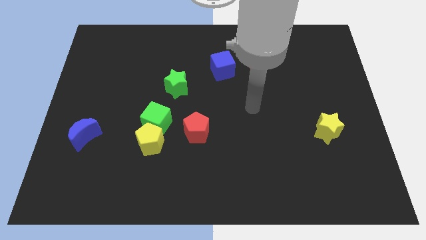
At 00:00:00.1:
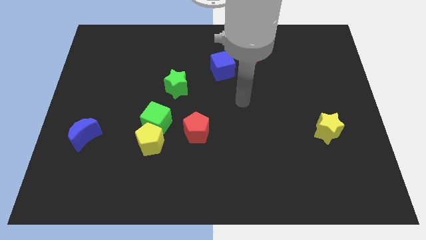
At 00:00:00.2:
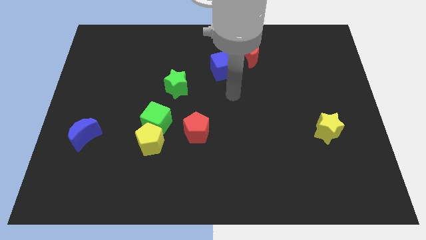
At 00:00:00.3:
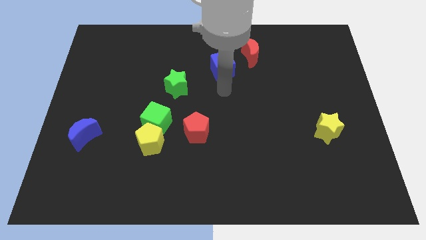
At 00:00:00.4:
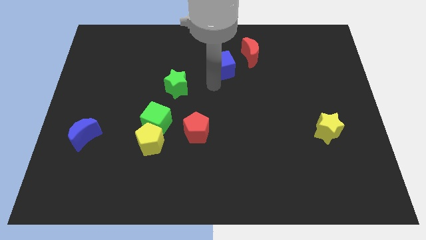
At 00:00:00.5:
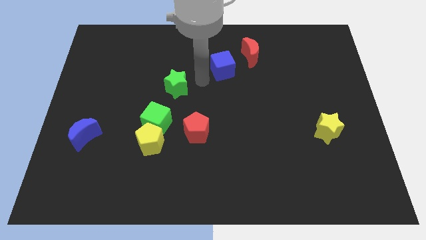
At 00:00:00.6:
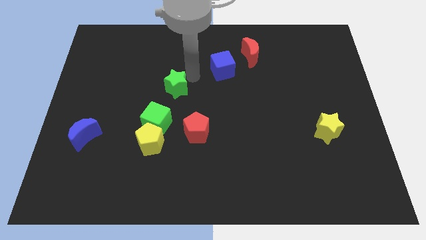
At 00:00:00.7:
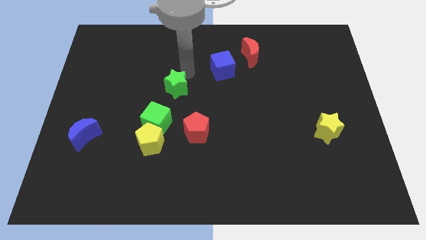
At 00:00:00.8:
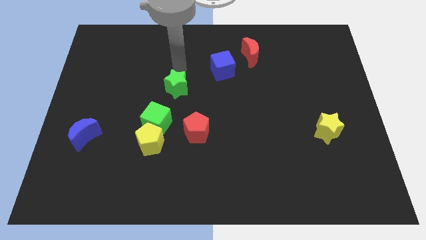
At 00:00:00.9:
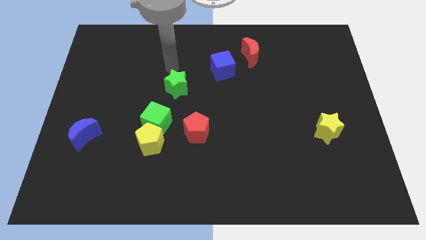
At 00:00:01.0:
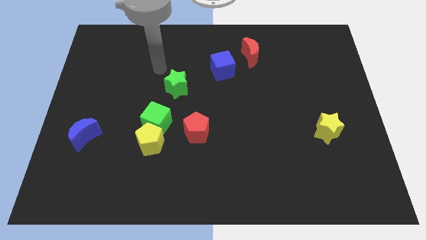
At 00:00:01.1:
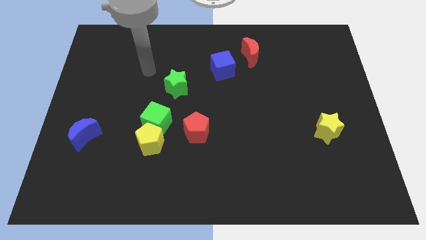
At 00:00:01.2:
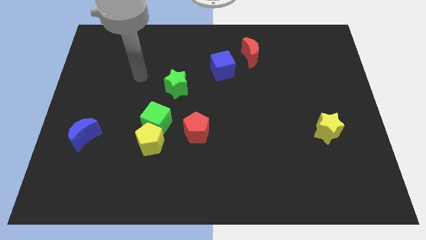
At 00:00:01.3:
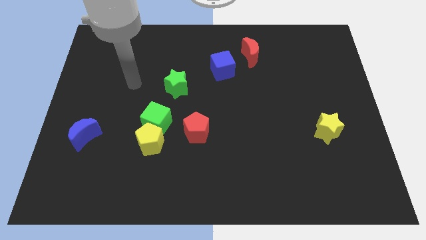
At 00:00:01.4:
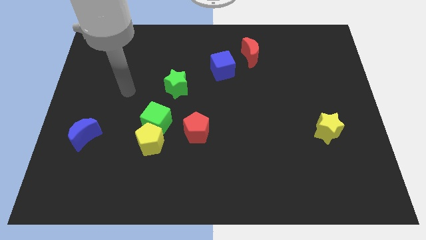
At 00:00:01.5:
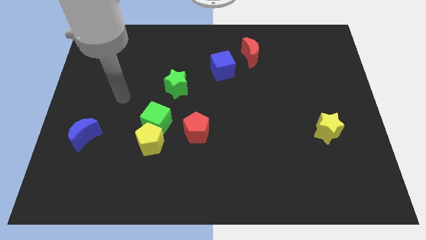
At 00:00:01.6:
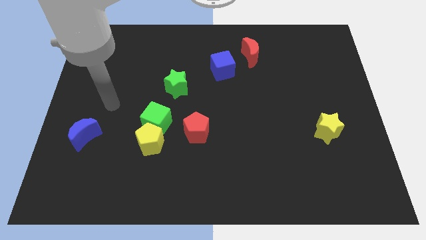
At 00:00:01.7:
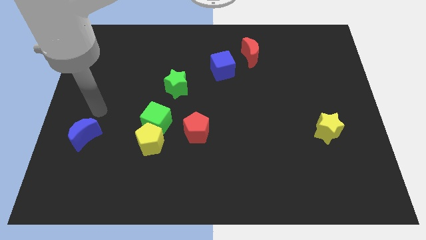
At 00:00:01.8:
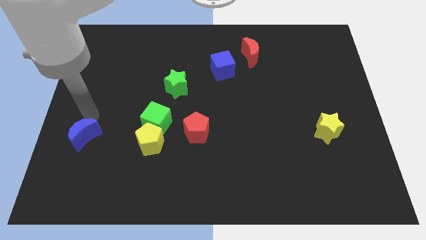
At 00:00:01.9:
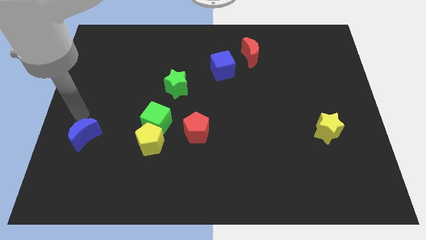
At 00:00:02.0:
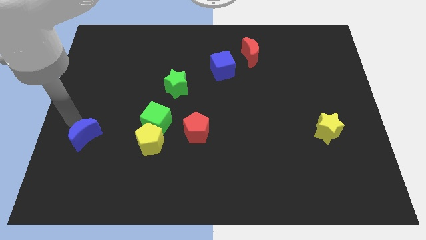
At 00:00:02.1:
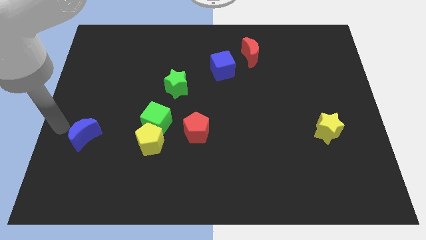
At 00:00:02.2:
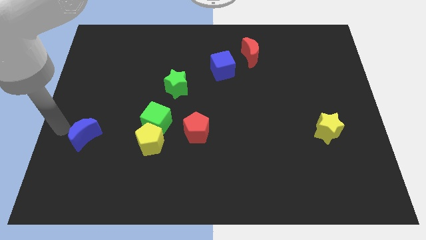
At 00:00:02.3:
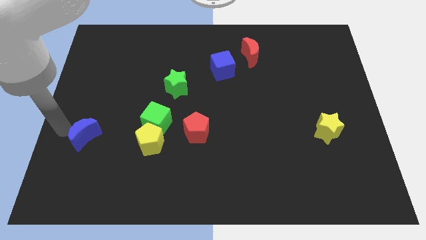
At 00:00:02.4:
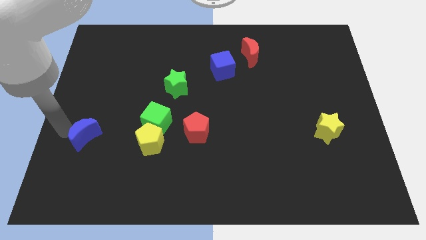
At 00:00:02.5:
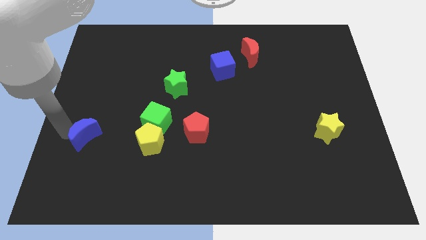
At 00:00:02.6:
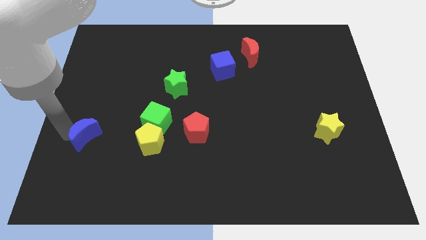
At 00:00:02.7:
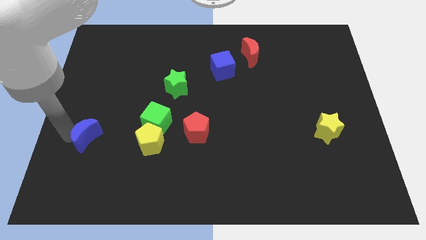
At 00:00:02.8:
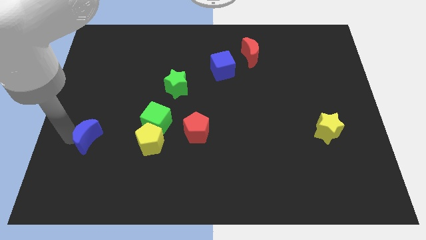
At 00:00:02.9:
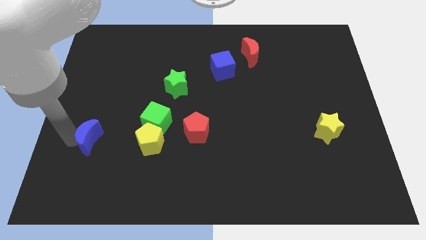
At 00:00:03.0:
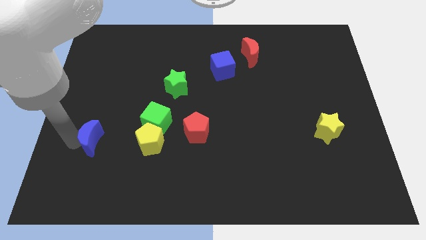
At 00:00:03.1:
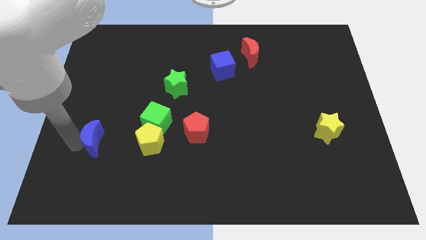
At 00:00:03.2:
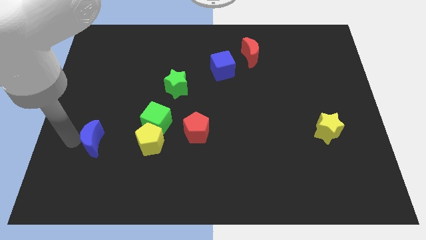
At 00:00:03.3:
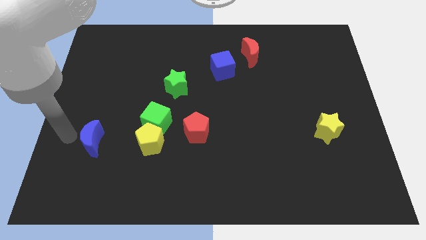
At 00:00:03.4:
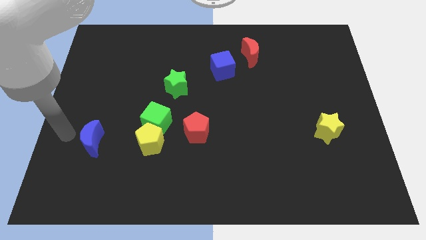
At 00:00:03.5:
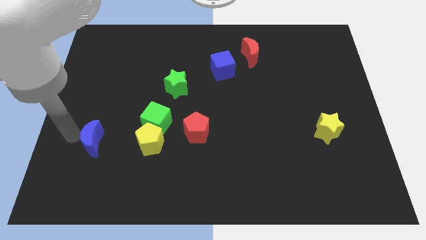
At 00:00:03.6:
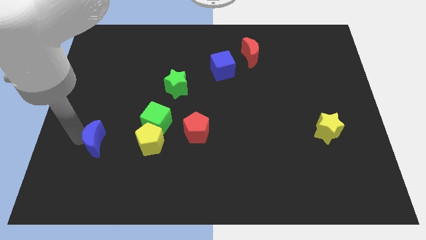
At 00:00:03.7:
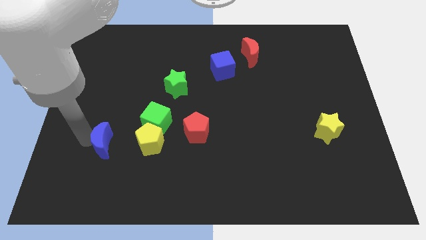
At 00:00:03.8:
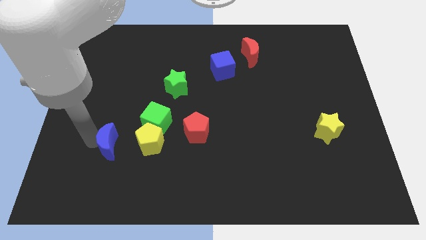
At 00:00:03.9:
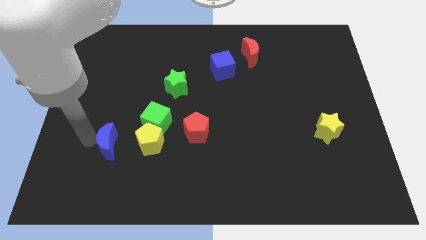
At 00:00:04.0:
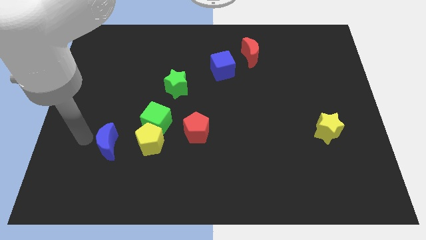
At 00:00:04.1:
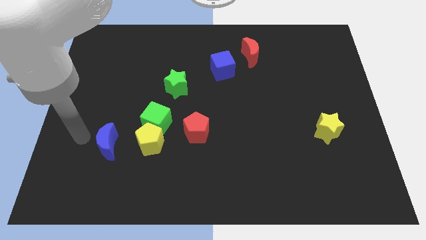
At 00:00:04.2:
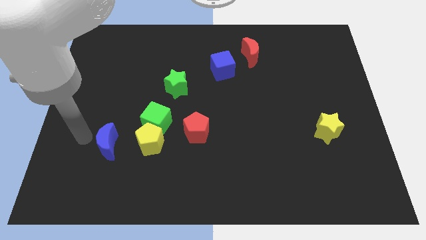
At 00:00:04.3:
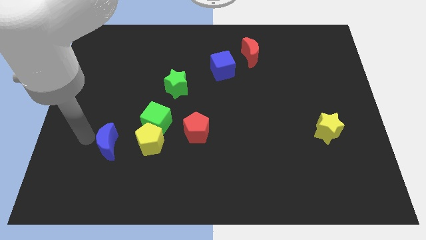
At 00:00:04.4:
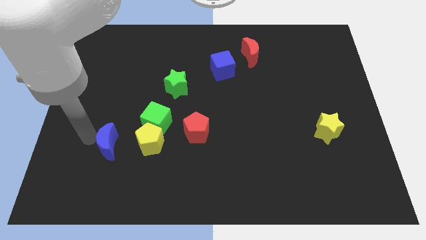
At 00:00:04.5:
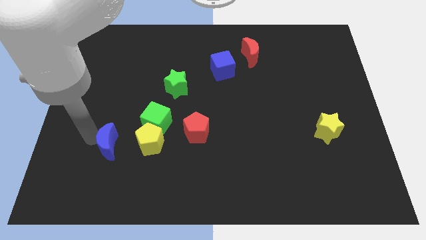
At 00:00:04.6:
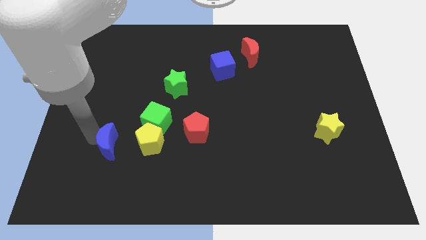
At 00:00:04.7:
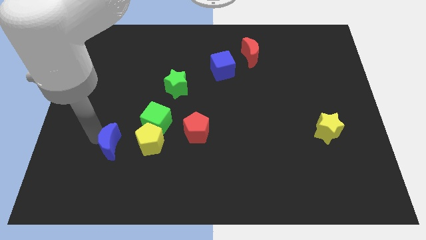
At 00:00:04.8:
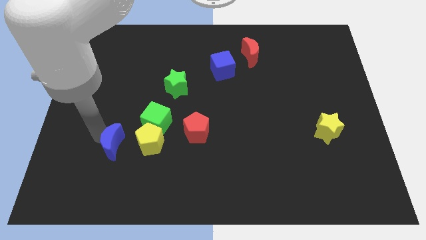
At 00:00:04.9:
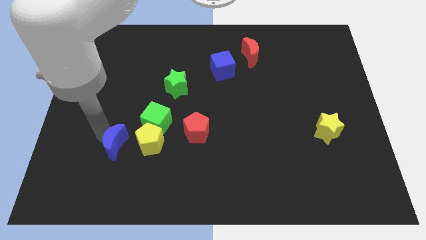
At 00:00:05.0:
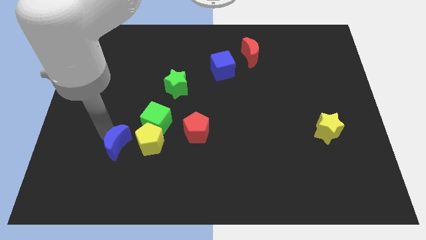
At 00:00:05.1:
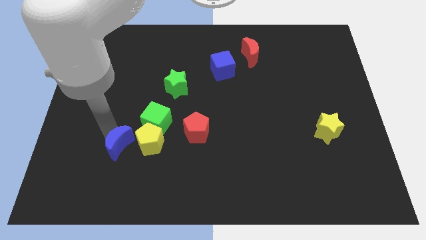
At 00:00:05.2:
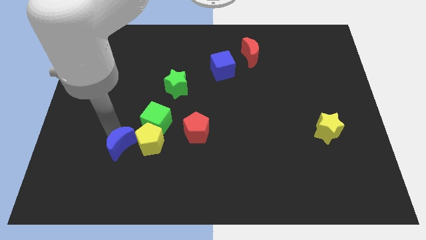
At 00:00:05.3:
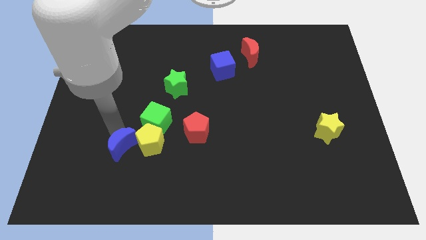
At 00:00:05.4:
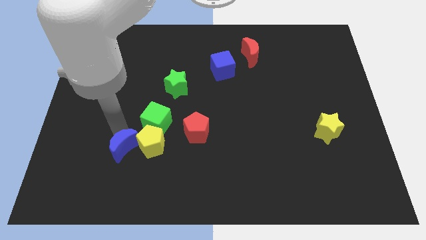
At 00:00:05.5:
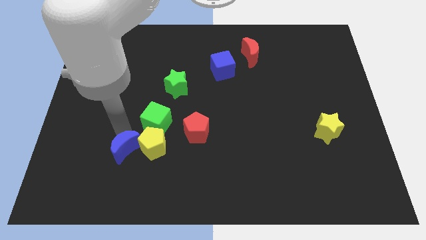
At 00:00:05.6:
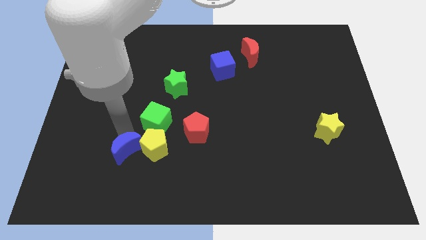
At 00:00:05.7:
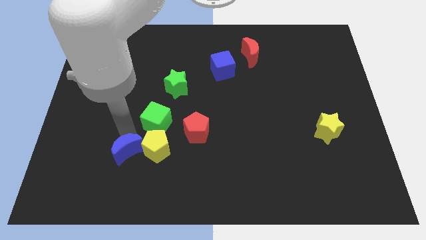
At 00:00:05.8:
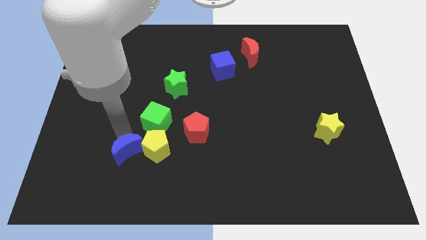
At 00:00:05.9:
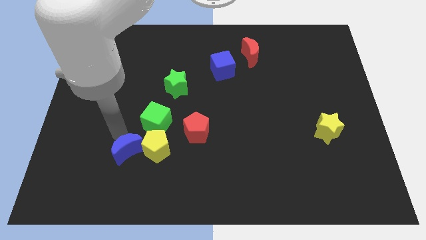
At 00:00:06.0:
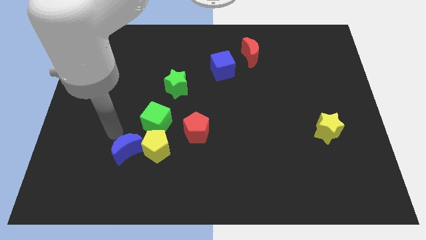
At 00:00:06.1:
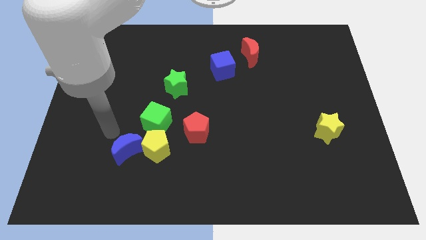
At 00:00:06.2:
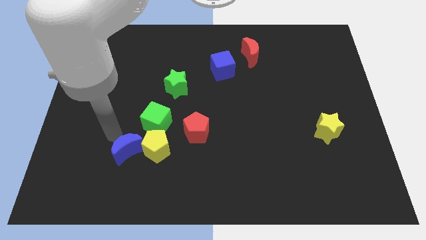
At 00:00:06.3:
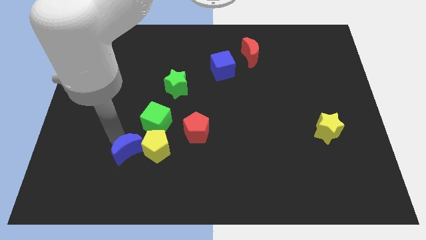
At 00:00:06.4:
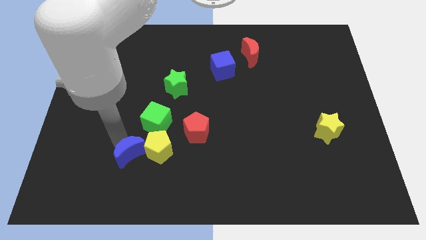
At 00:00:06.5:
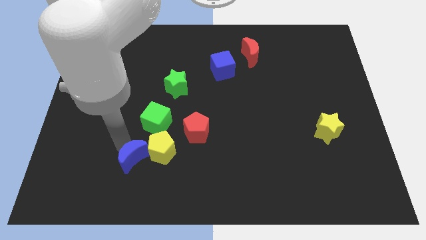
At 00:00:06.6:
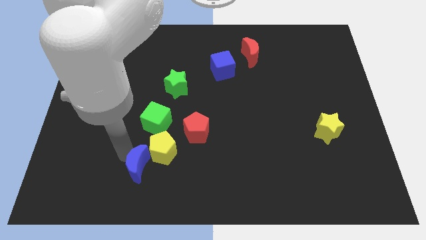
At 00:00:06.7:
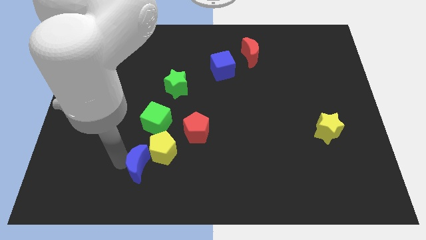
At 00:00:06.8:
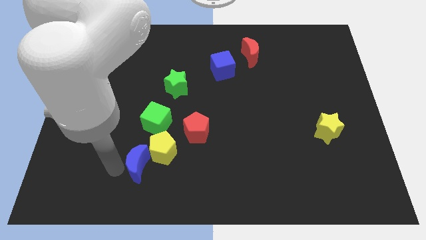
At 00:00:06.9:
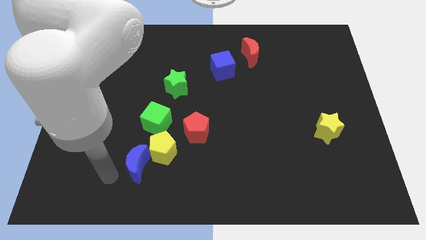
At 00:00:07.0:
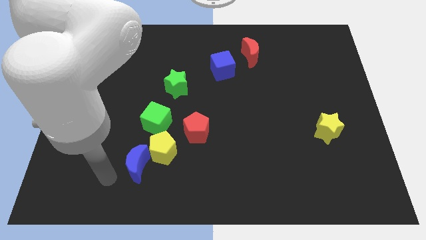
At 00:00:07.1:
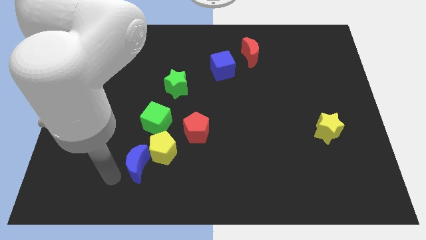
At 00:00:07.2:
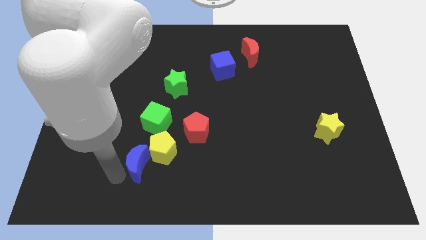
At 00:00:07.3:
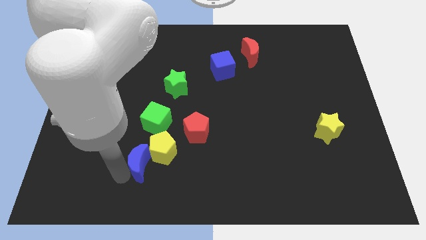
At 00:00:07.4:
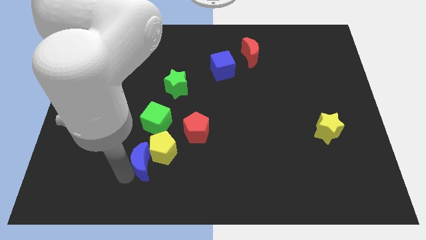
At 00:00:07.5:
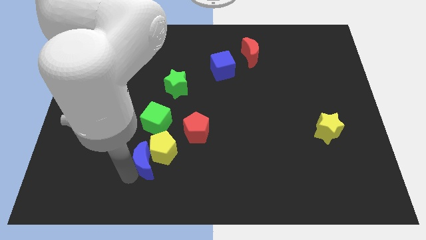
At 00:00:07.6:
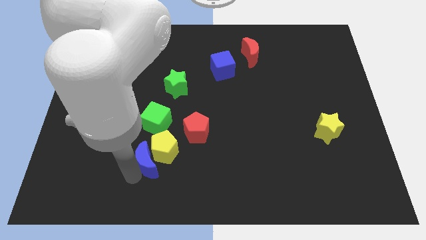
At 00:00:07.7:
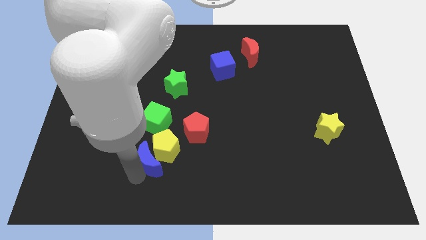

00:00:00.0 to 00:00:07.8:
push the blue moon to the bottom left of the red pentagon
